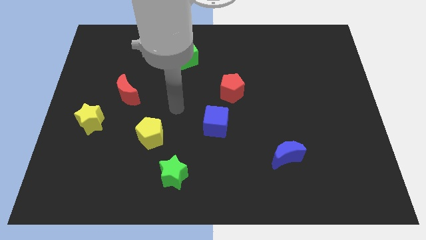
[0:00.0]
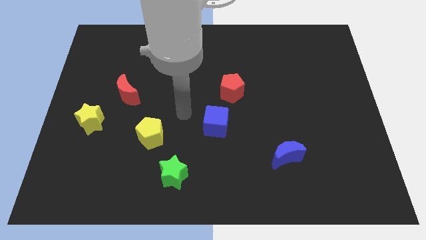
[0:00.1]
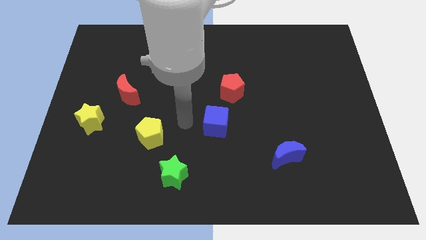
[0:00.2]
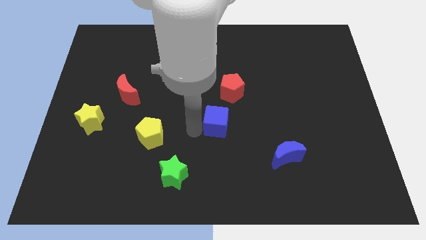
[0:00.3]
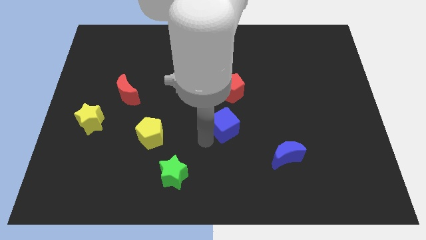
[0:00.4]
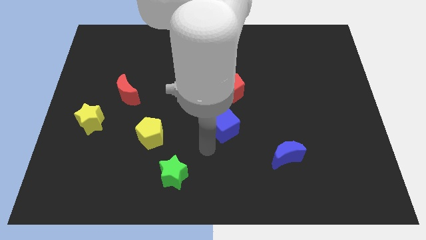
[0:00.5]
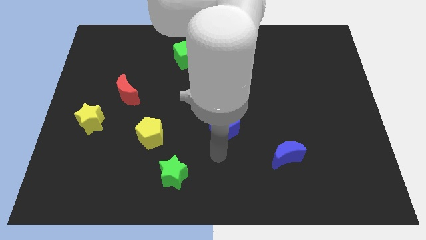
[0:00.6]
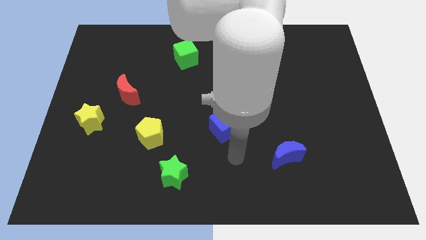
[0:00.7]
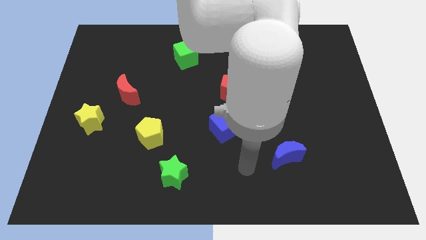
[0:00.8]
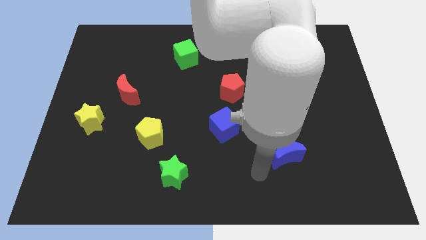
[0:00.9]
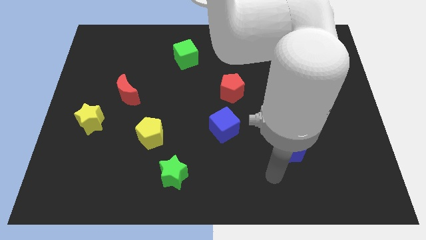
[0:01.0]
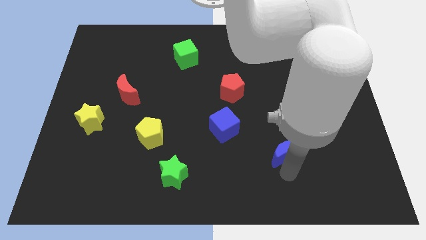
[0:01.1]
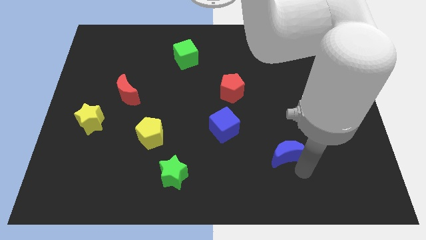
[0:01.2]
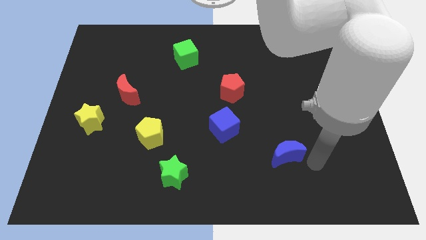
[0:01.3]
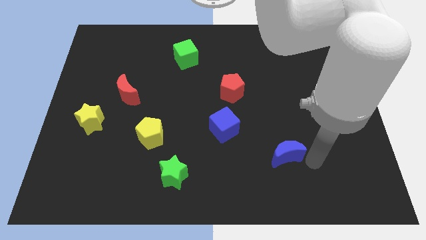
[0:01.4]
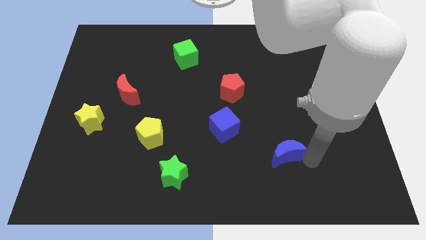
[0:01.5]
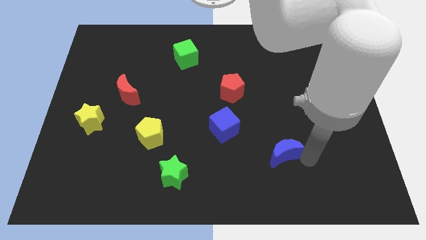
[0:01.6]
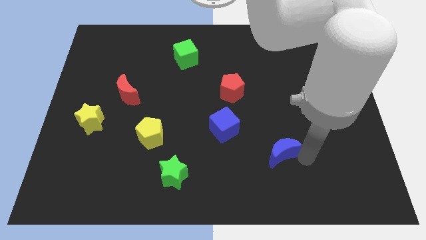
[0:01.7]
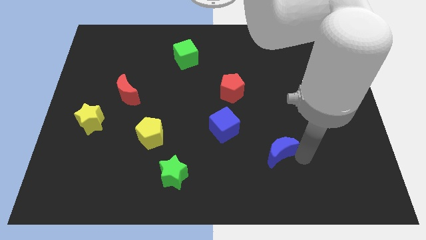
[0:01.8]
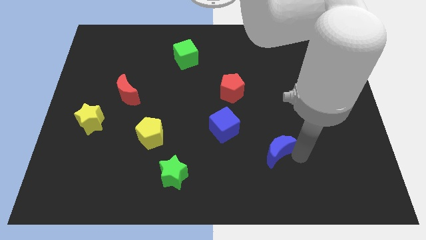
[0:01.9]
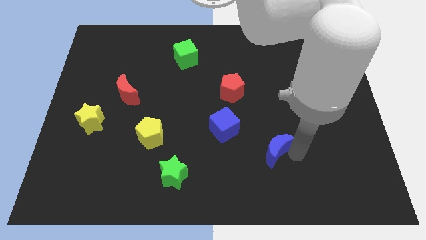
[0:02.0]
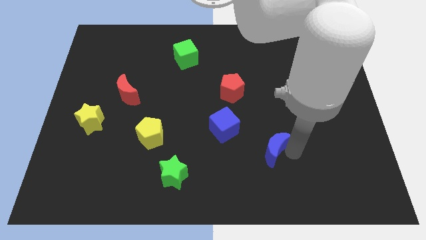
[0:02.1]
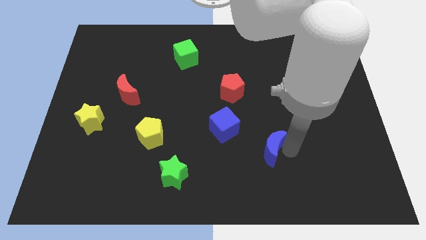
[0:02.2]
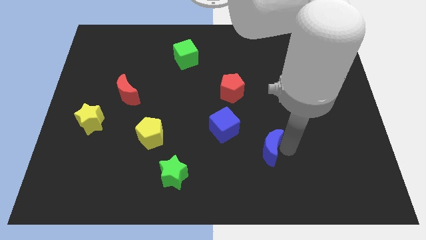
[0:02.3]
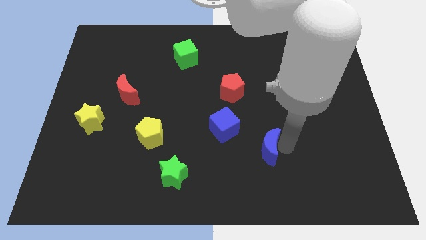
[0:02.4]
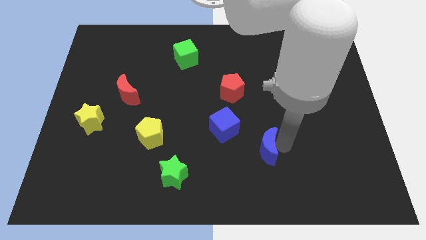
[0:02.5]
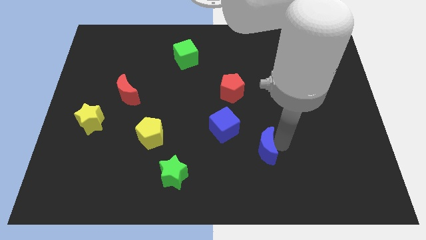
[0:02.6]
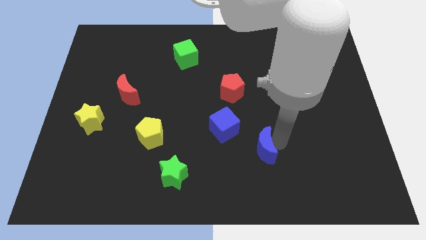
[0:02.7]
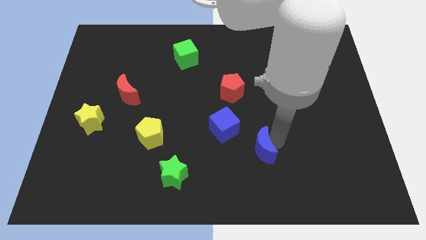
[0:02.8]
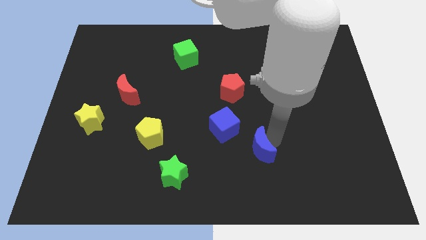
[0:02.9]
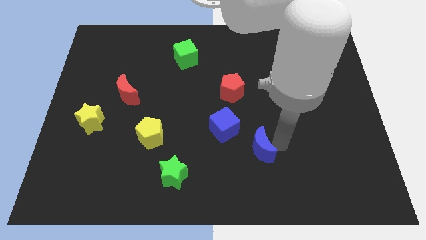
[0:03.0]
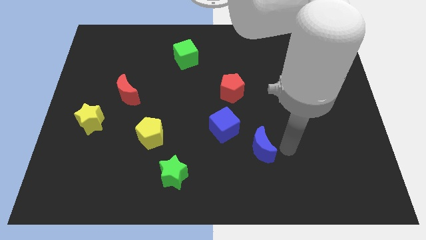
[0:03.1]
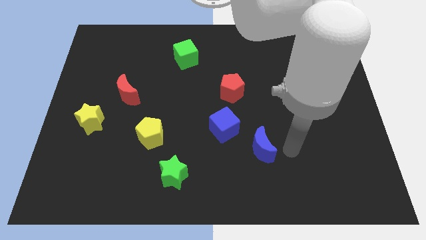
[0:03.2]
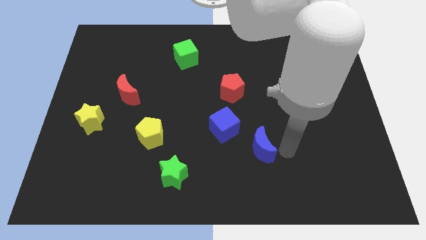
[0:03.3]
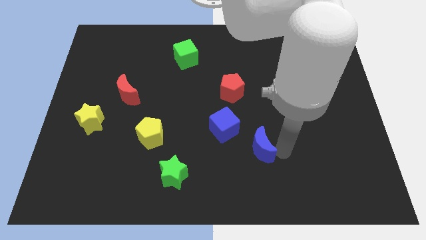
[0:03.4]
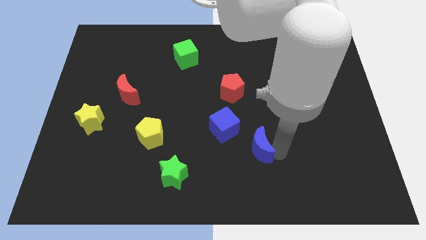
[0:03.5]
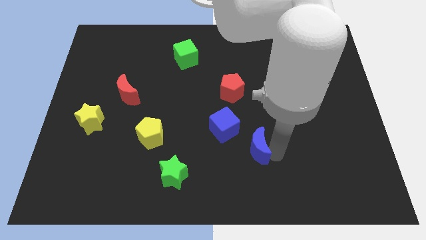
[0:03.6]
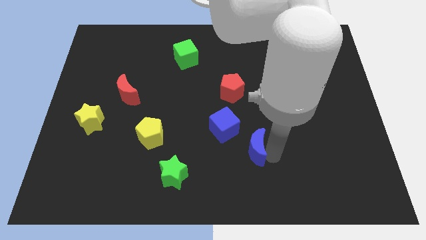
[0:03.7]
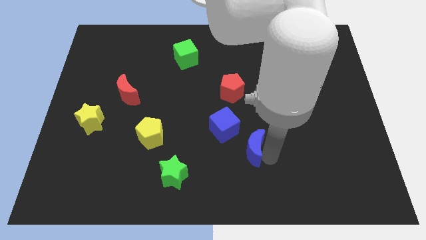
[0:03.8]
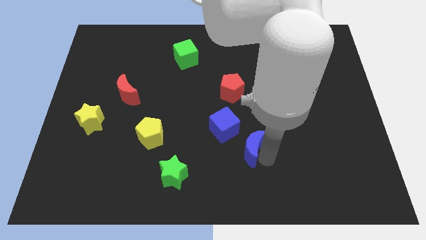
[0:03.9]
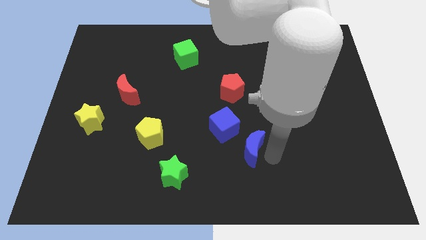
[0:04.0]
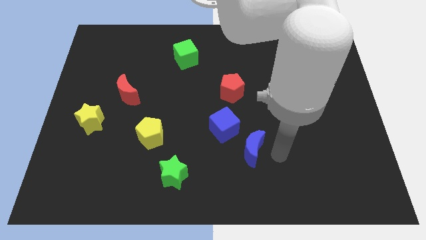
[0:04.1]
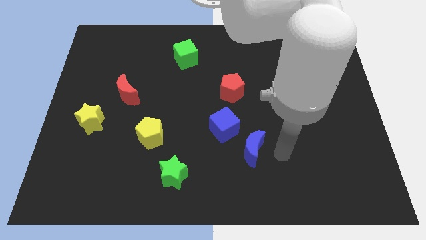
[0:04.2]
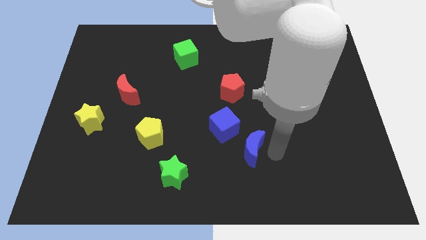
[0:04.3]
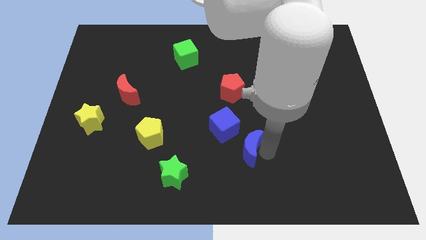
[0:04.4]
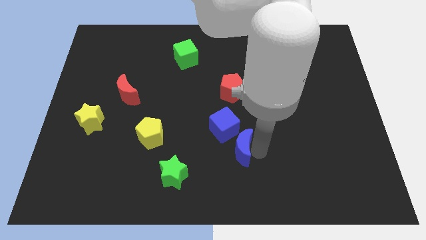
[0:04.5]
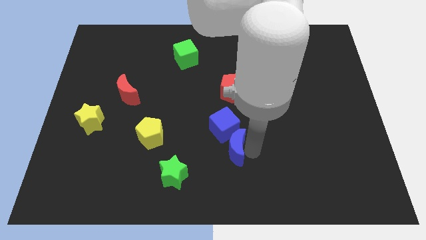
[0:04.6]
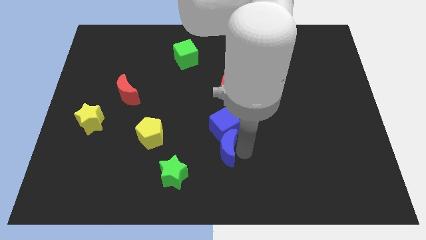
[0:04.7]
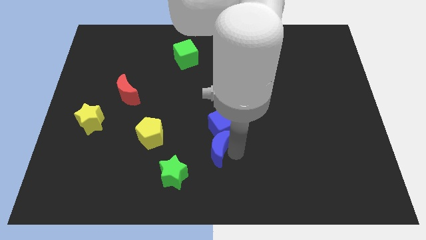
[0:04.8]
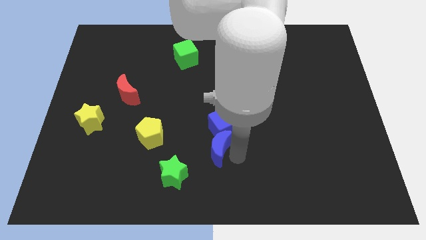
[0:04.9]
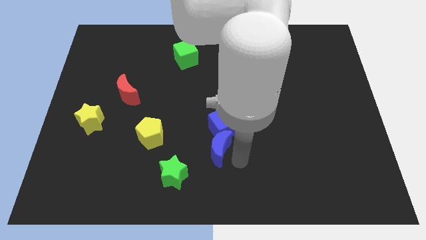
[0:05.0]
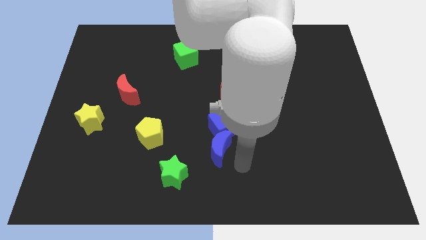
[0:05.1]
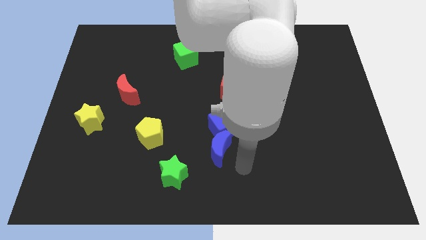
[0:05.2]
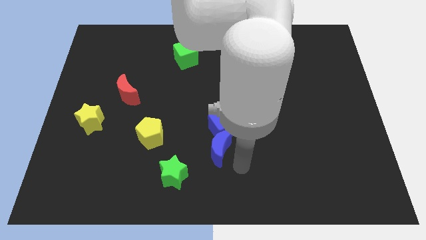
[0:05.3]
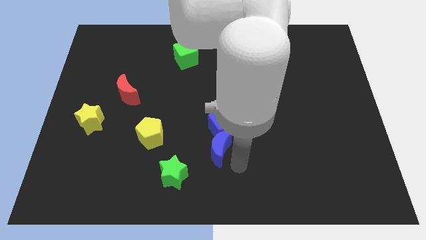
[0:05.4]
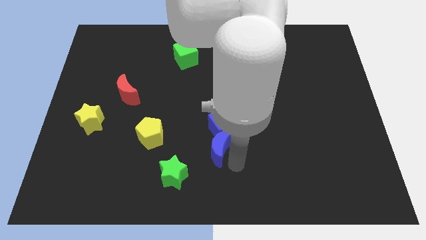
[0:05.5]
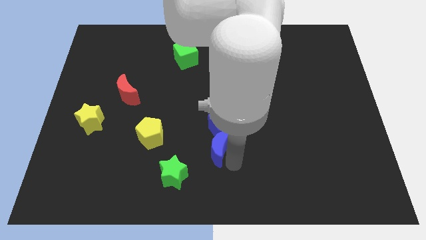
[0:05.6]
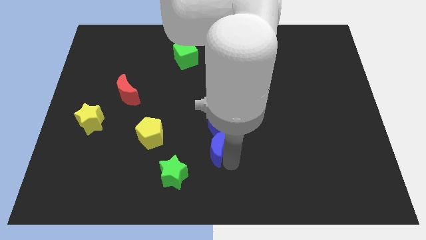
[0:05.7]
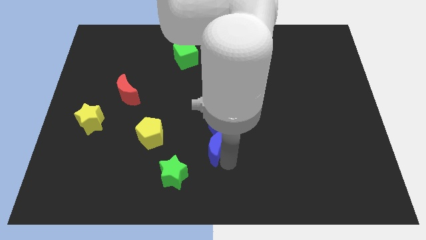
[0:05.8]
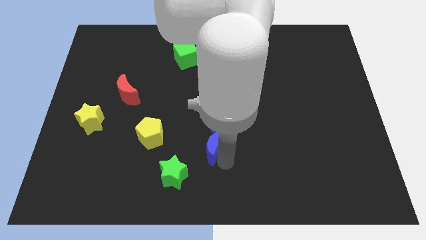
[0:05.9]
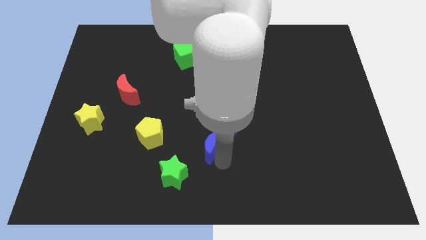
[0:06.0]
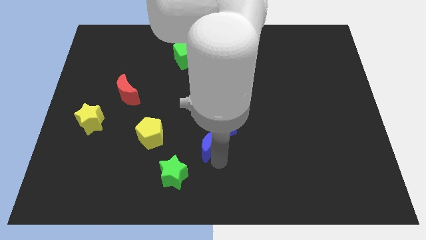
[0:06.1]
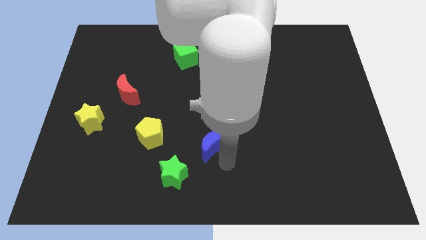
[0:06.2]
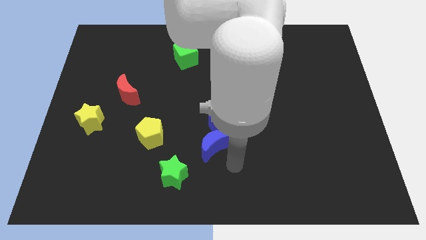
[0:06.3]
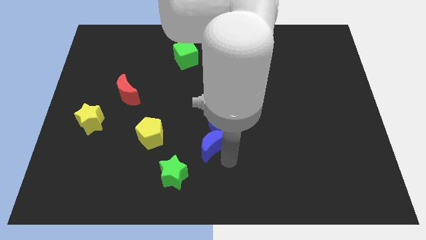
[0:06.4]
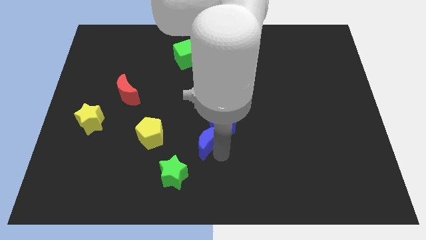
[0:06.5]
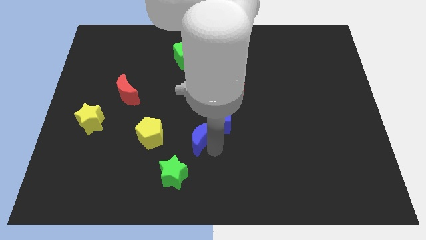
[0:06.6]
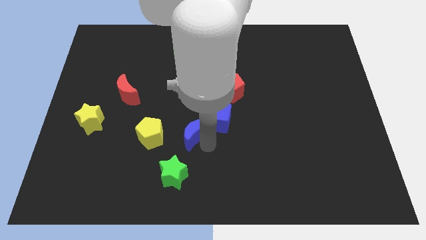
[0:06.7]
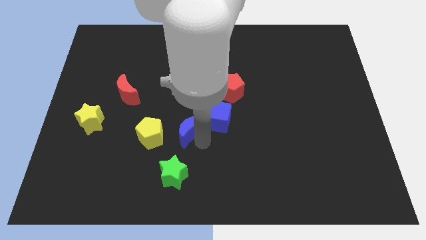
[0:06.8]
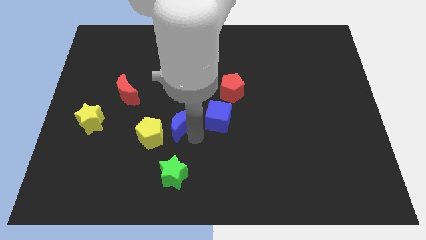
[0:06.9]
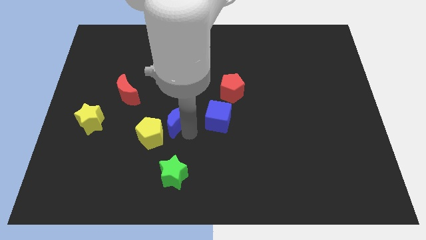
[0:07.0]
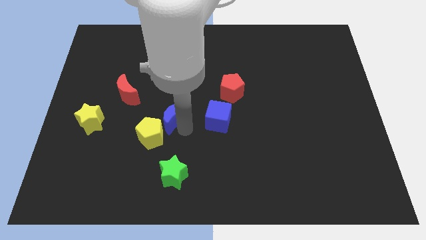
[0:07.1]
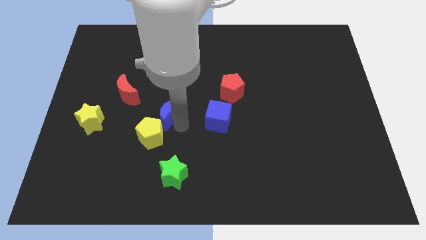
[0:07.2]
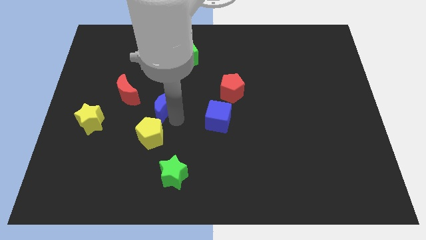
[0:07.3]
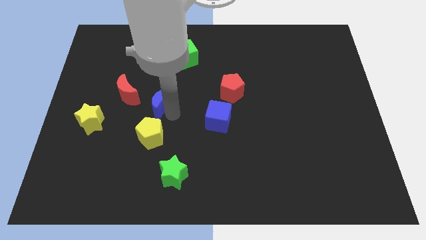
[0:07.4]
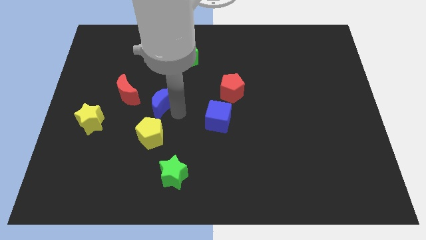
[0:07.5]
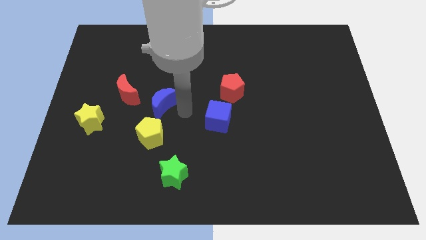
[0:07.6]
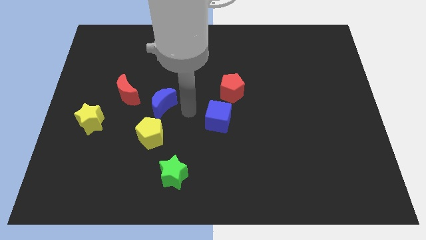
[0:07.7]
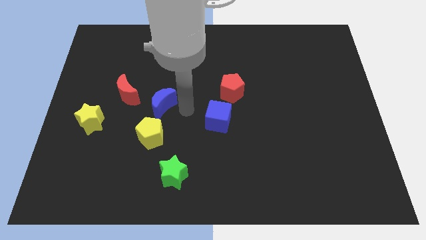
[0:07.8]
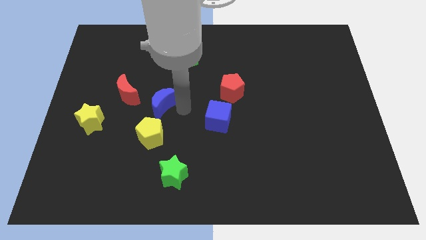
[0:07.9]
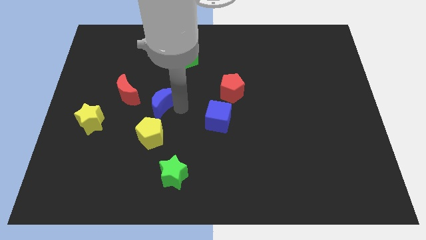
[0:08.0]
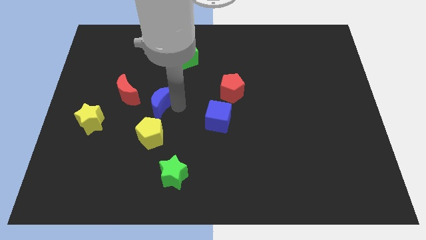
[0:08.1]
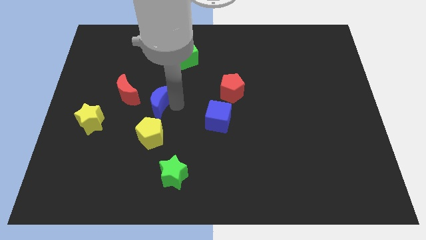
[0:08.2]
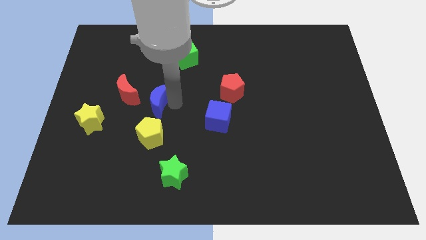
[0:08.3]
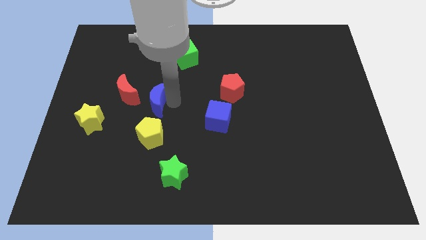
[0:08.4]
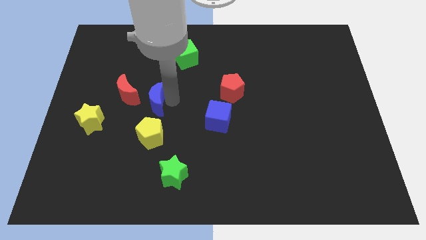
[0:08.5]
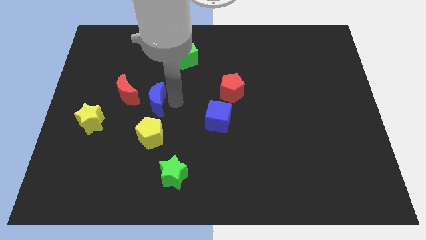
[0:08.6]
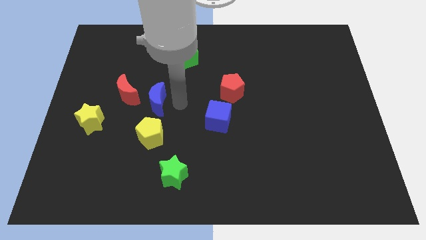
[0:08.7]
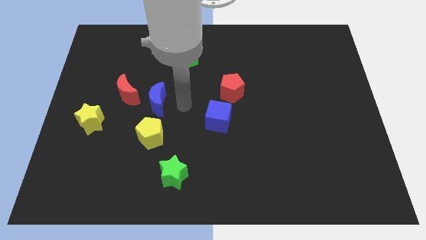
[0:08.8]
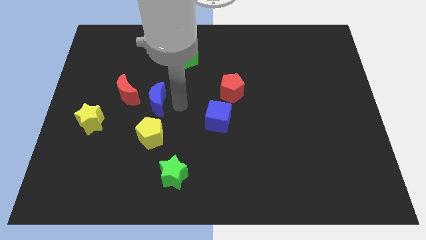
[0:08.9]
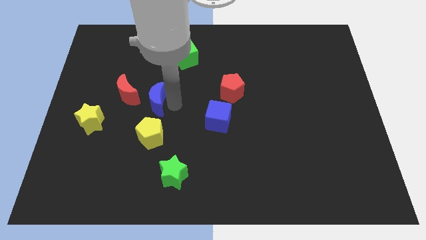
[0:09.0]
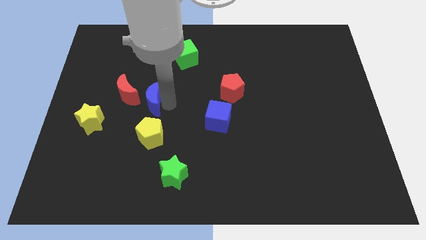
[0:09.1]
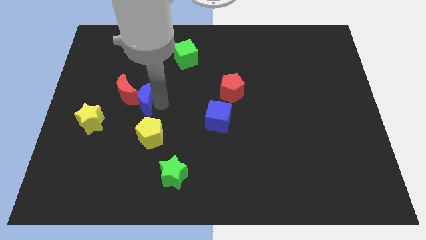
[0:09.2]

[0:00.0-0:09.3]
move the blue moon next to the red moon
